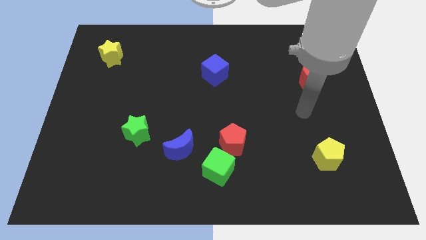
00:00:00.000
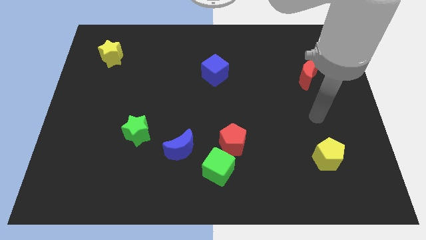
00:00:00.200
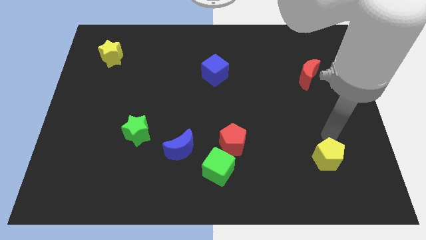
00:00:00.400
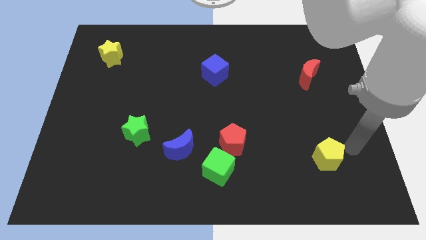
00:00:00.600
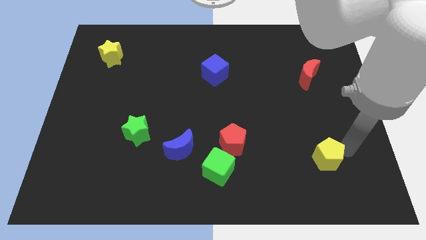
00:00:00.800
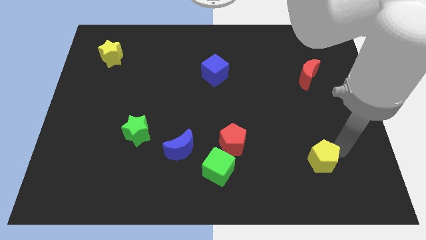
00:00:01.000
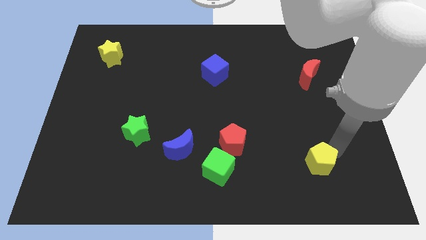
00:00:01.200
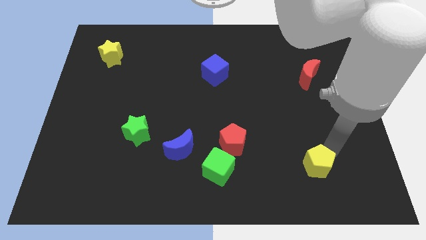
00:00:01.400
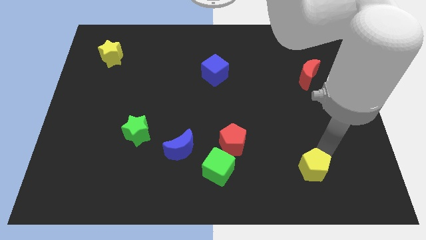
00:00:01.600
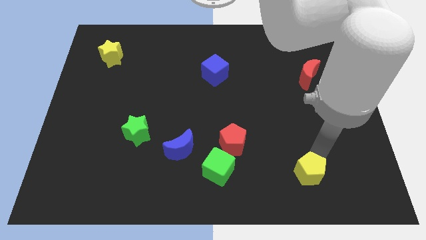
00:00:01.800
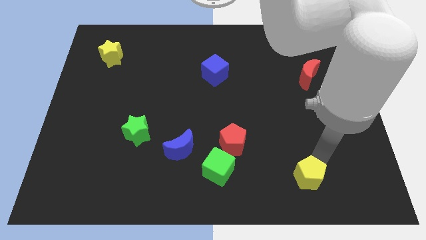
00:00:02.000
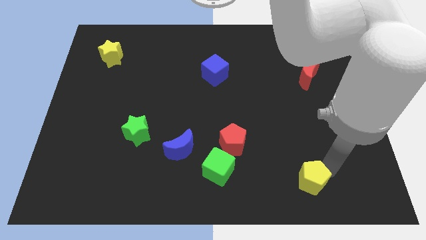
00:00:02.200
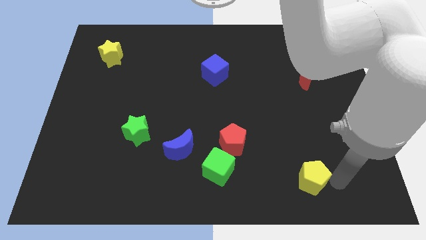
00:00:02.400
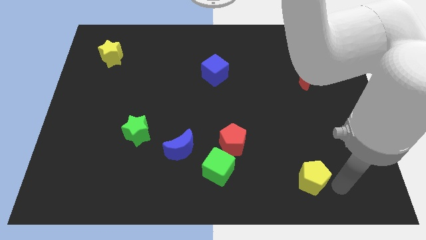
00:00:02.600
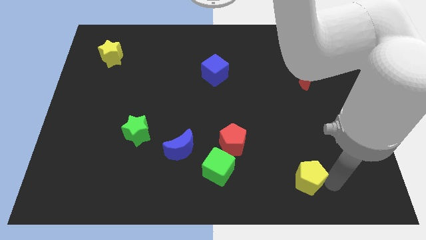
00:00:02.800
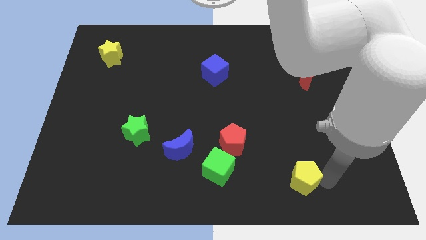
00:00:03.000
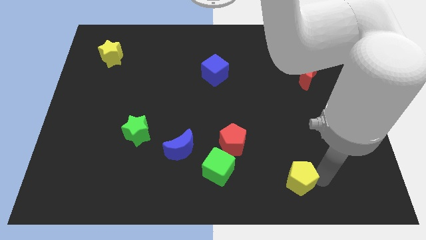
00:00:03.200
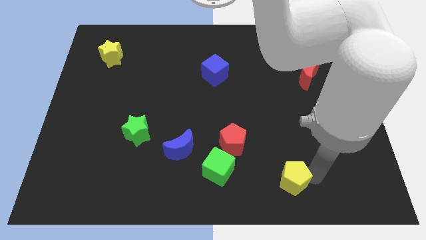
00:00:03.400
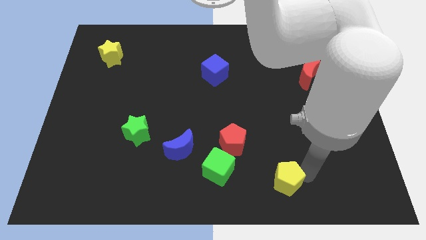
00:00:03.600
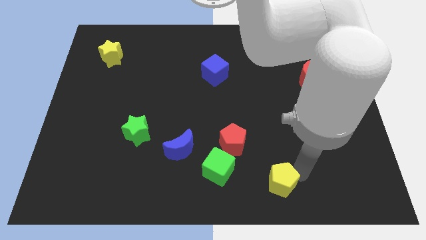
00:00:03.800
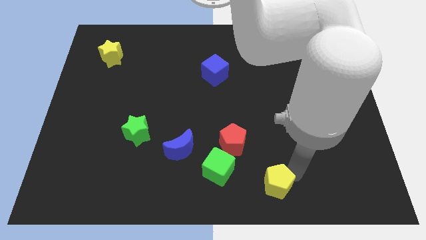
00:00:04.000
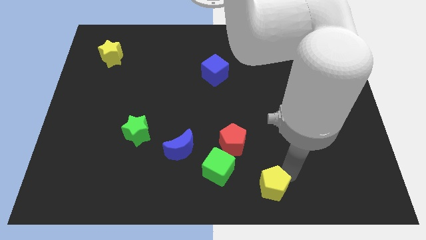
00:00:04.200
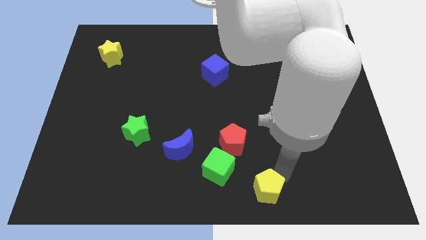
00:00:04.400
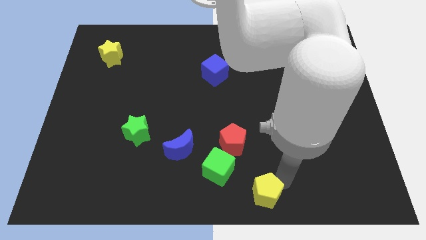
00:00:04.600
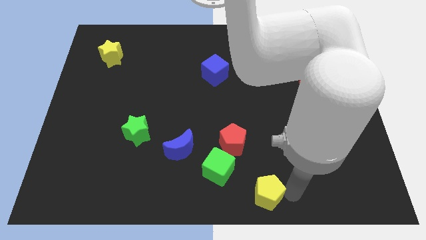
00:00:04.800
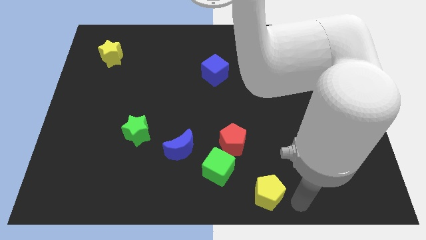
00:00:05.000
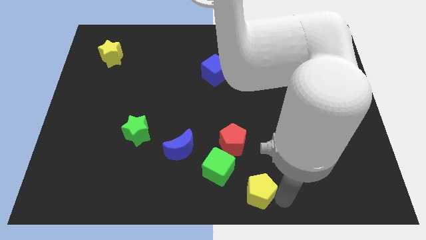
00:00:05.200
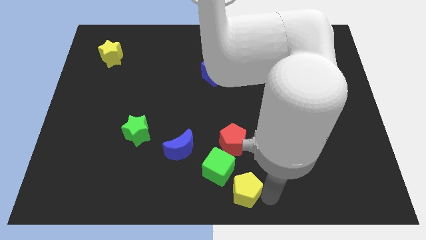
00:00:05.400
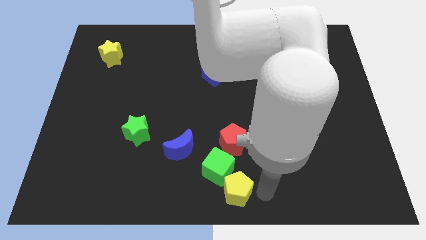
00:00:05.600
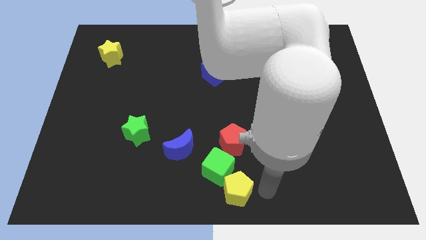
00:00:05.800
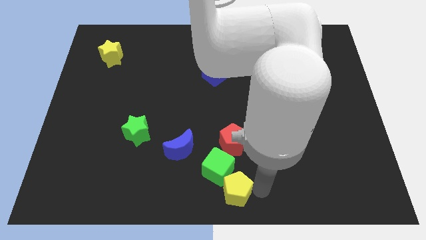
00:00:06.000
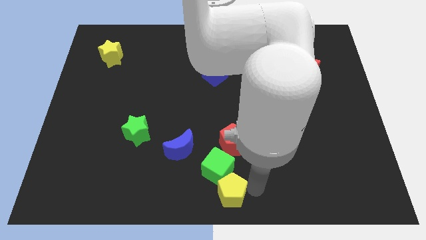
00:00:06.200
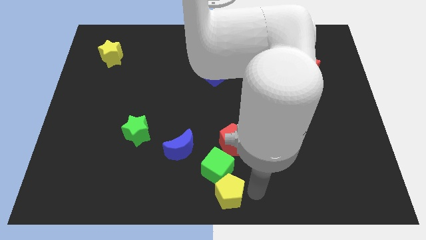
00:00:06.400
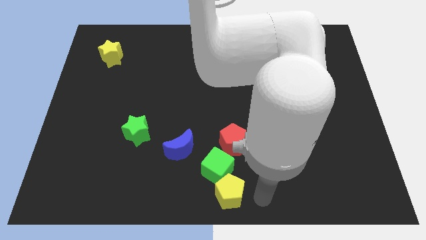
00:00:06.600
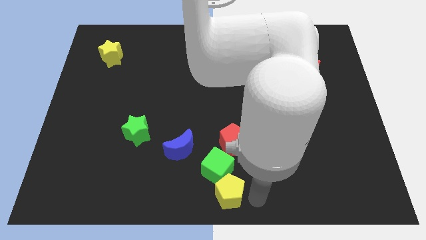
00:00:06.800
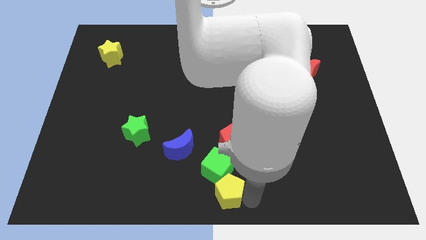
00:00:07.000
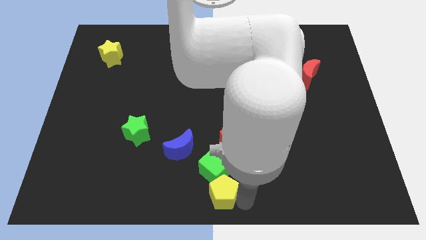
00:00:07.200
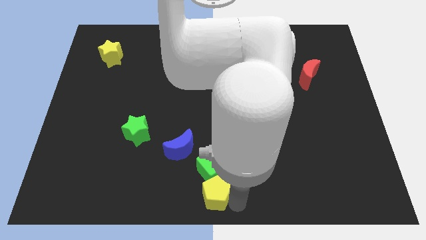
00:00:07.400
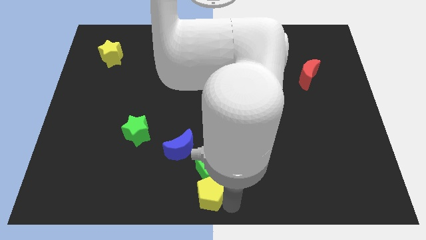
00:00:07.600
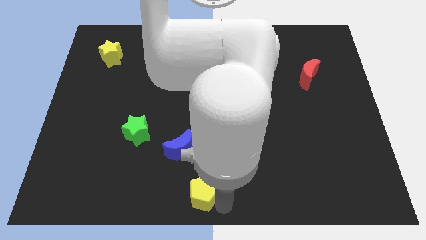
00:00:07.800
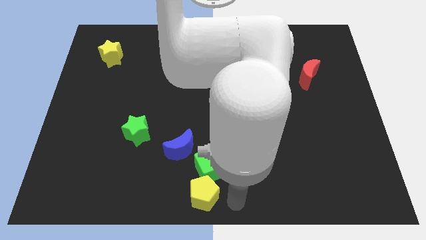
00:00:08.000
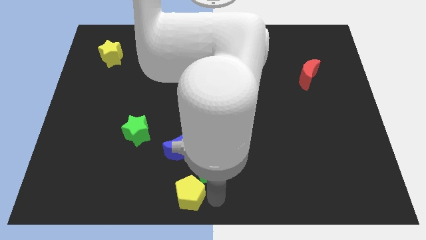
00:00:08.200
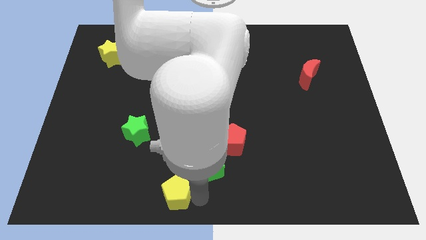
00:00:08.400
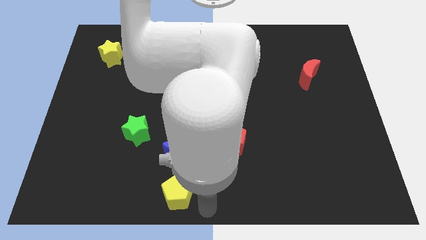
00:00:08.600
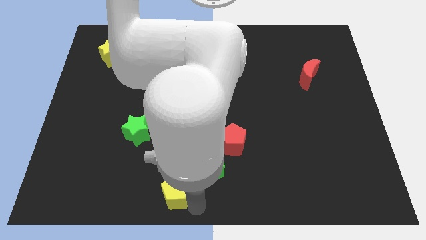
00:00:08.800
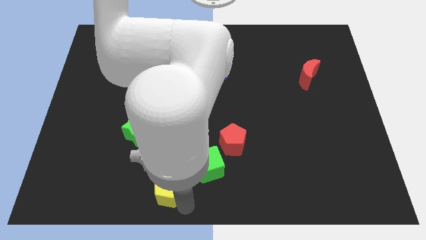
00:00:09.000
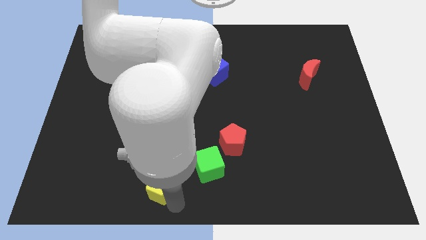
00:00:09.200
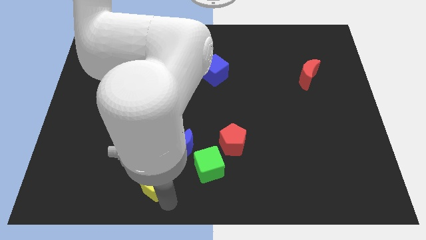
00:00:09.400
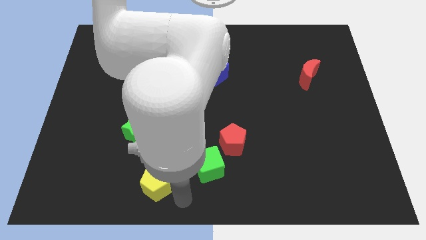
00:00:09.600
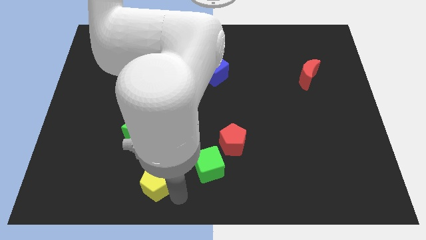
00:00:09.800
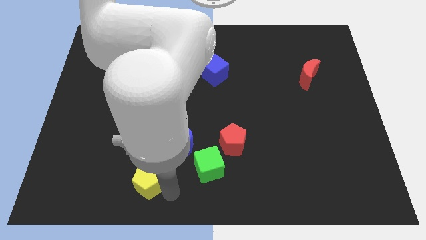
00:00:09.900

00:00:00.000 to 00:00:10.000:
move the yellow pentagon below the green star

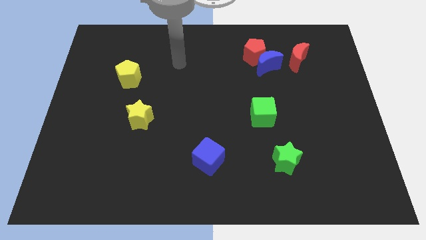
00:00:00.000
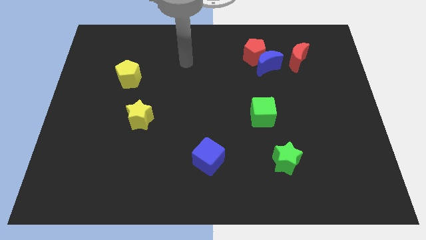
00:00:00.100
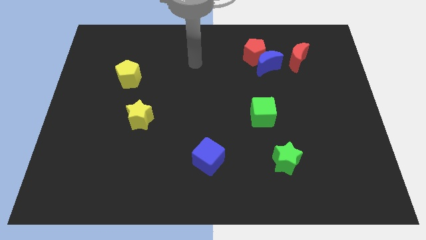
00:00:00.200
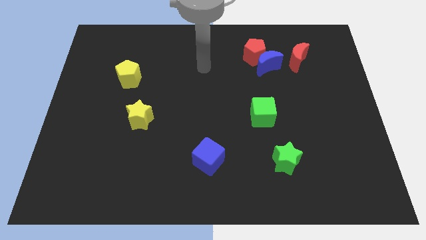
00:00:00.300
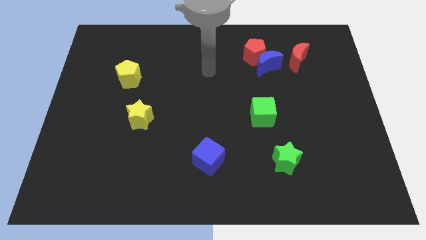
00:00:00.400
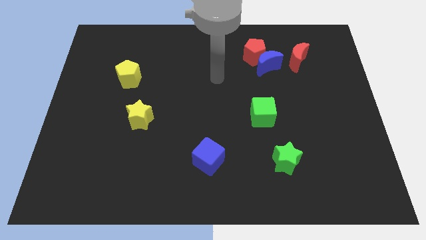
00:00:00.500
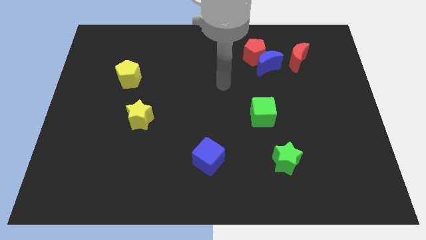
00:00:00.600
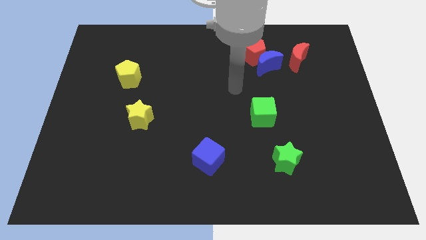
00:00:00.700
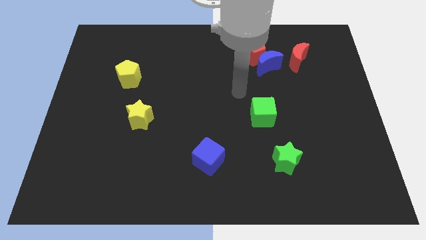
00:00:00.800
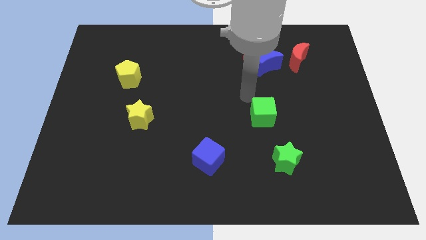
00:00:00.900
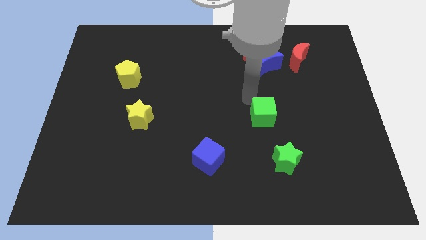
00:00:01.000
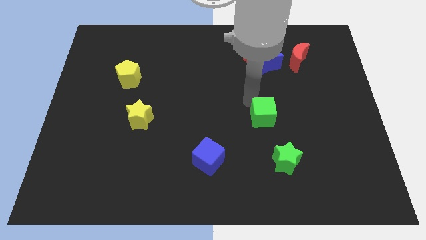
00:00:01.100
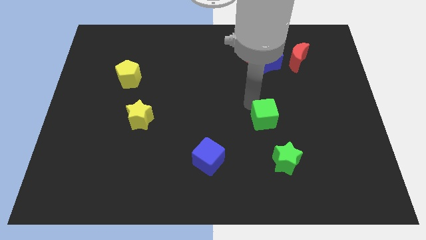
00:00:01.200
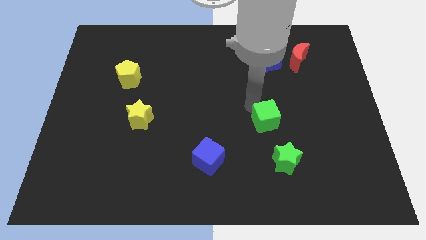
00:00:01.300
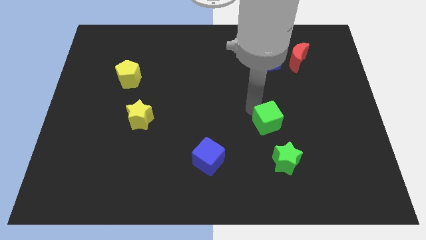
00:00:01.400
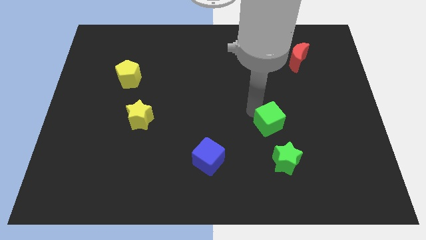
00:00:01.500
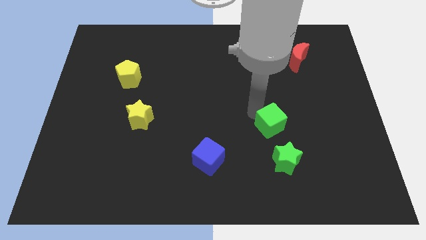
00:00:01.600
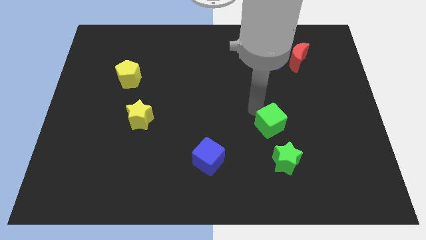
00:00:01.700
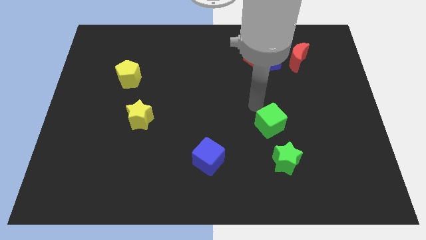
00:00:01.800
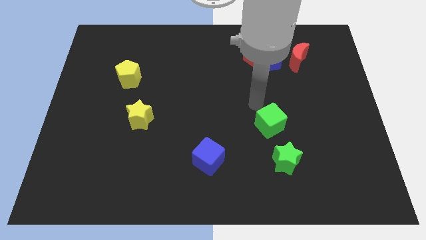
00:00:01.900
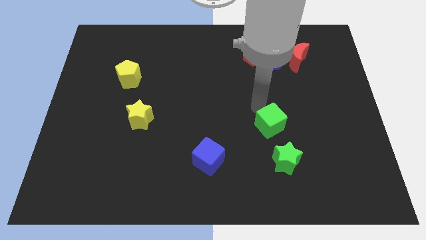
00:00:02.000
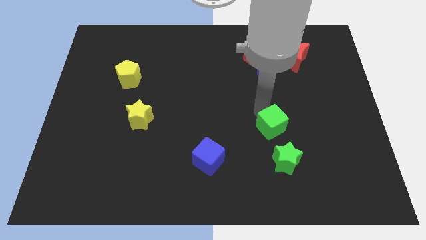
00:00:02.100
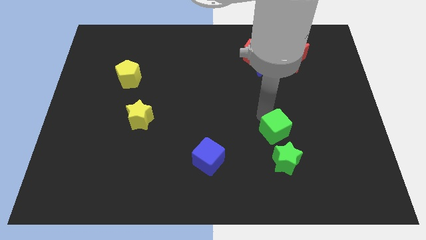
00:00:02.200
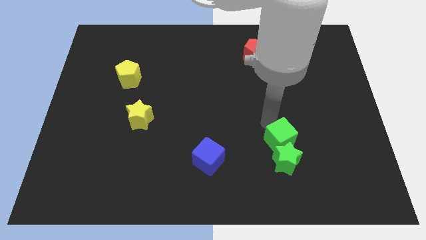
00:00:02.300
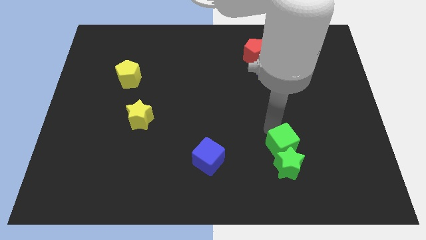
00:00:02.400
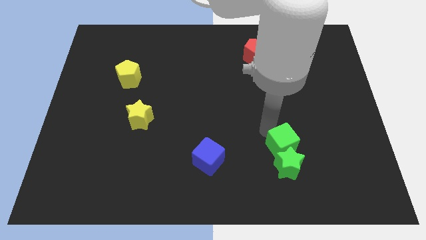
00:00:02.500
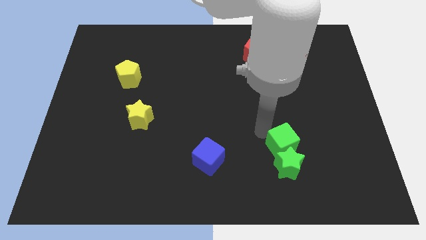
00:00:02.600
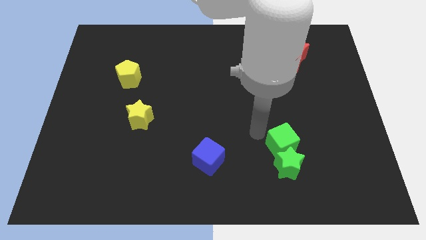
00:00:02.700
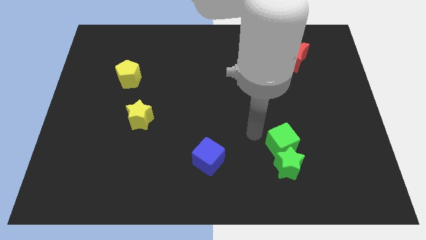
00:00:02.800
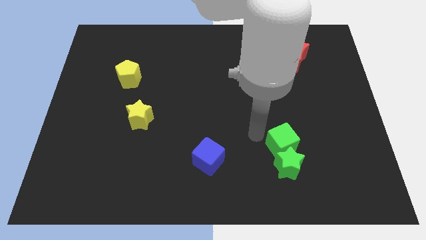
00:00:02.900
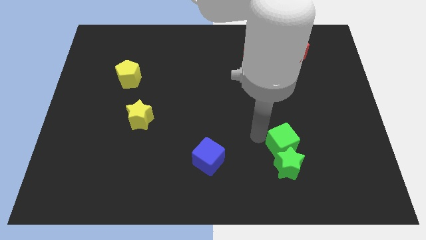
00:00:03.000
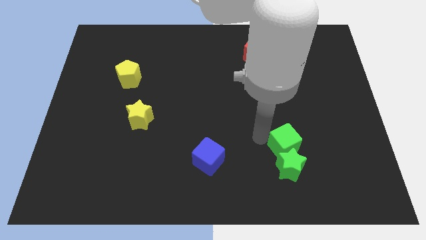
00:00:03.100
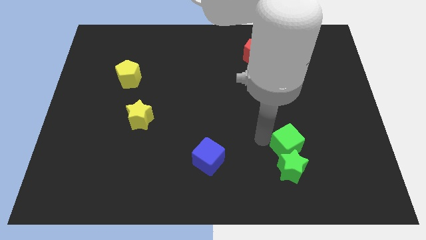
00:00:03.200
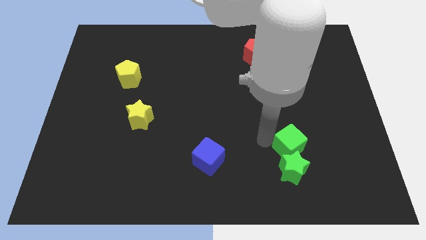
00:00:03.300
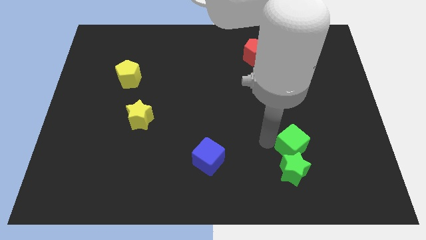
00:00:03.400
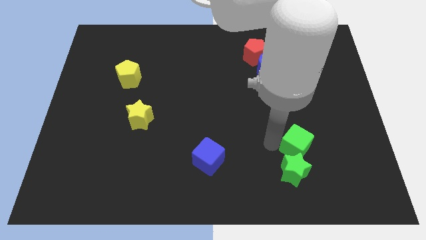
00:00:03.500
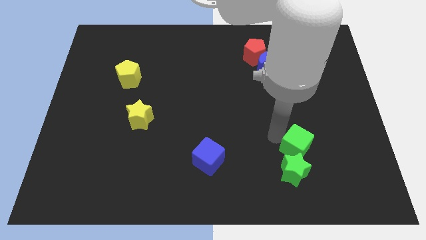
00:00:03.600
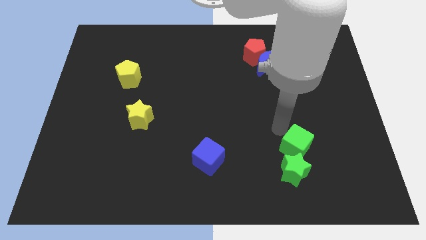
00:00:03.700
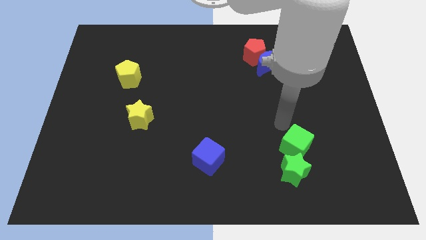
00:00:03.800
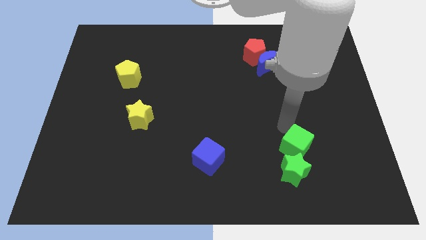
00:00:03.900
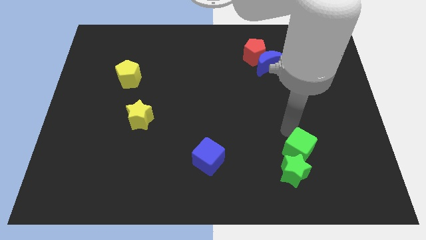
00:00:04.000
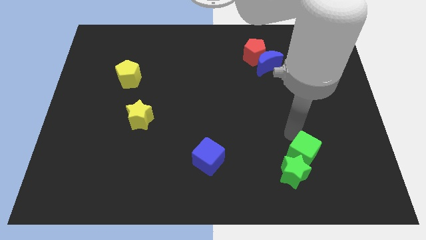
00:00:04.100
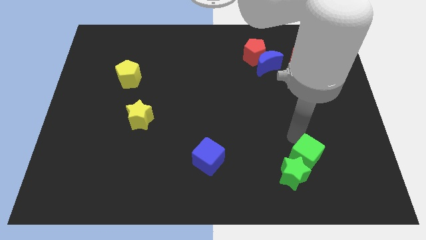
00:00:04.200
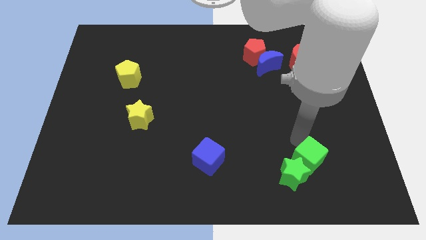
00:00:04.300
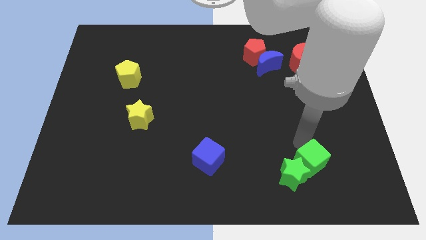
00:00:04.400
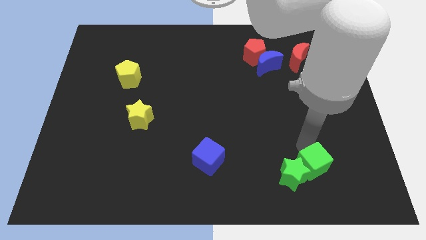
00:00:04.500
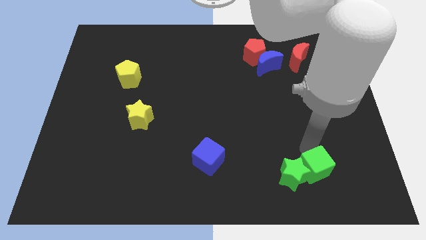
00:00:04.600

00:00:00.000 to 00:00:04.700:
push the green cube to the bottom right side of the green star
